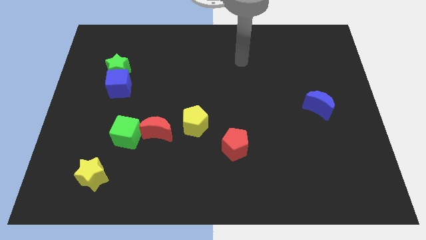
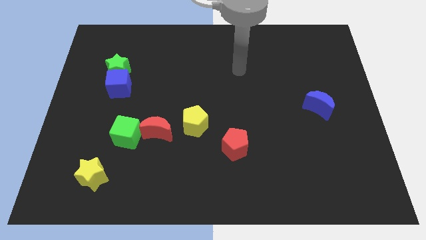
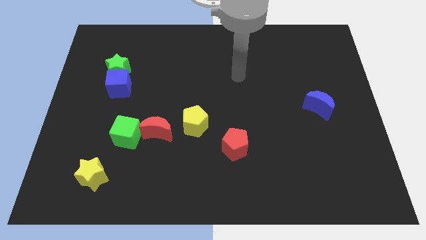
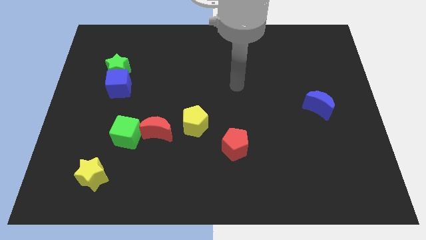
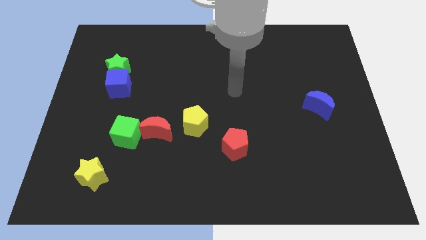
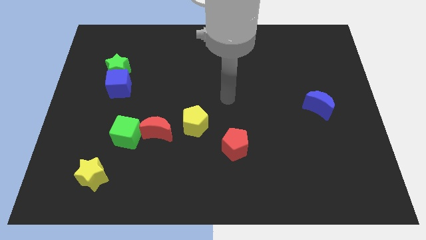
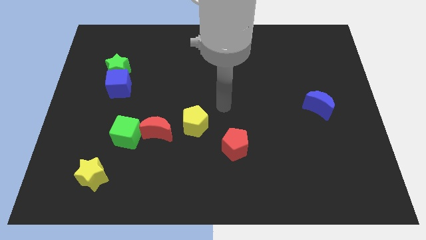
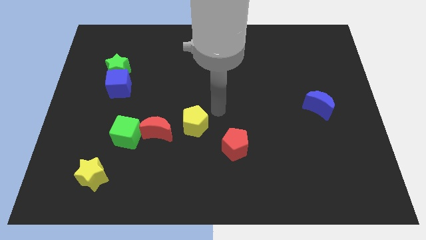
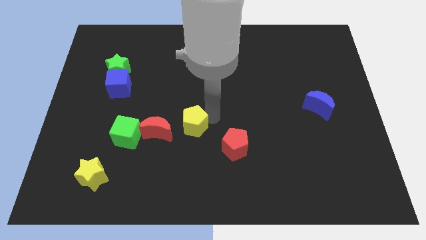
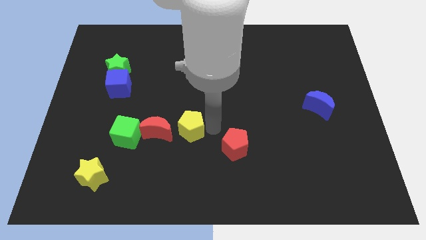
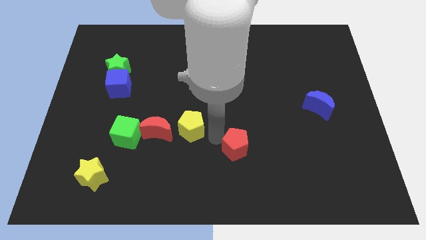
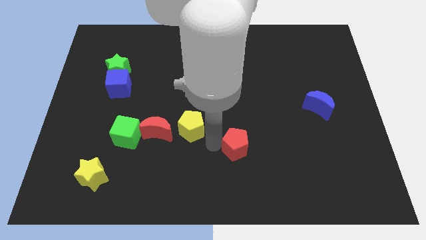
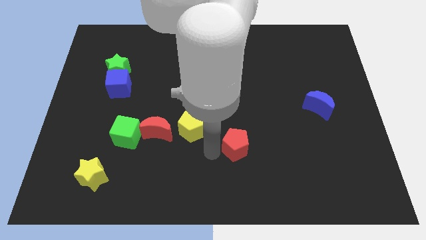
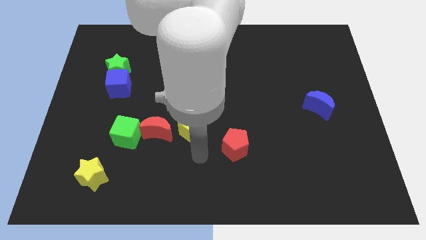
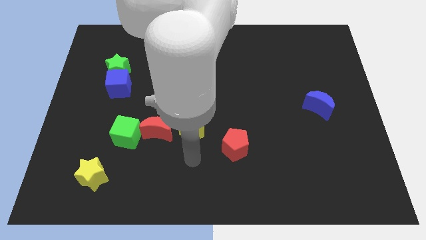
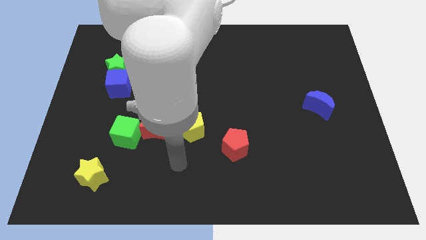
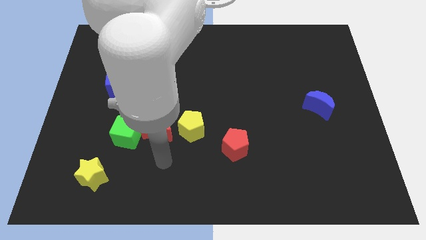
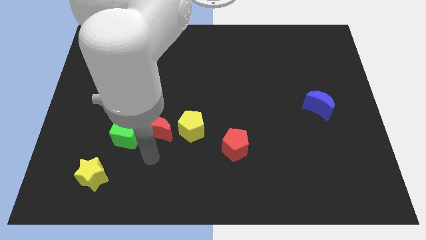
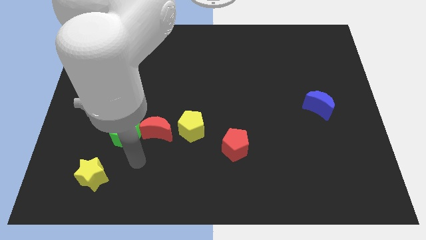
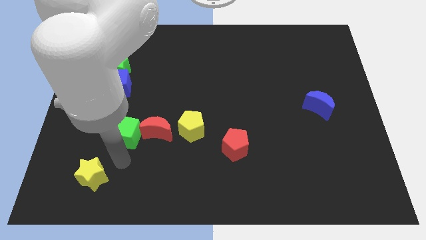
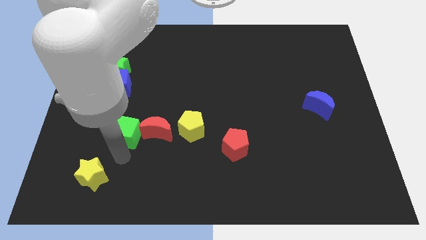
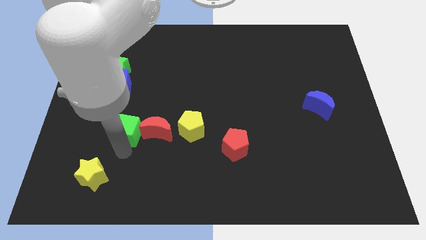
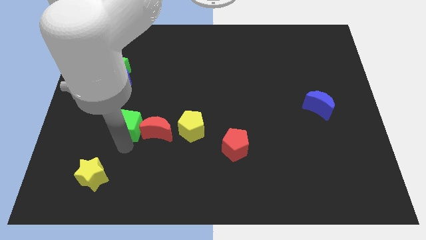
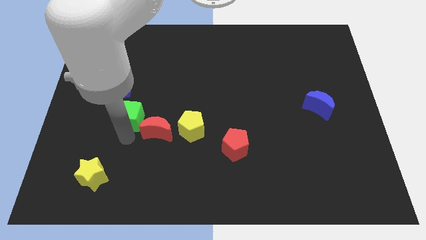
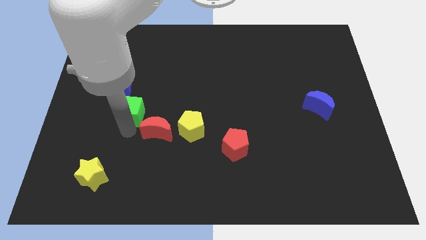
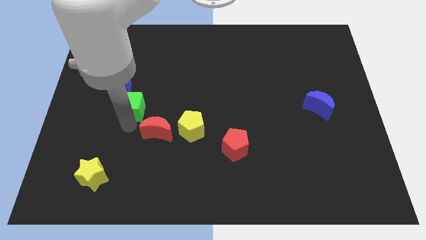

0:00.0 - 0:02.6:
slide the green cube a bit upwards

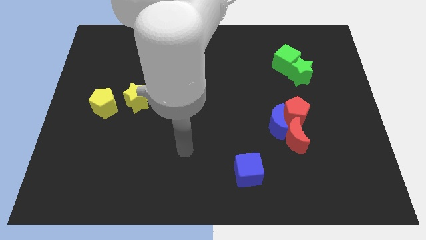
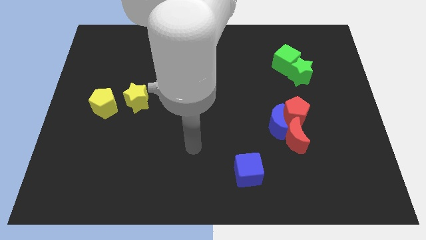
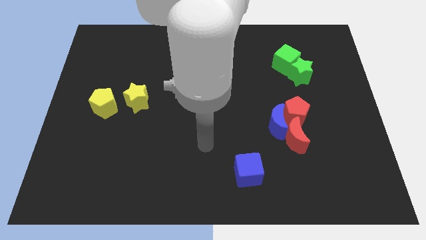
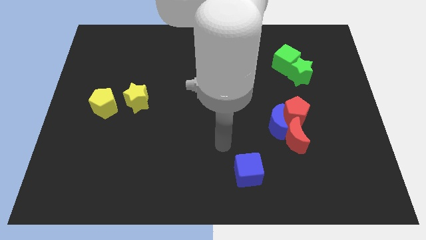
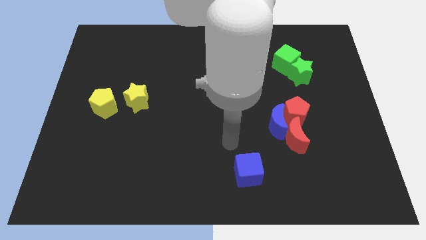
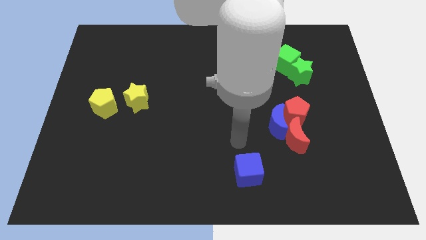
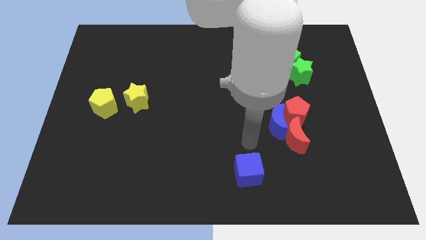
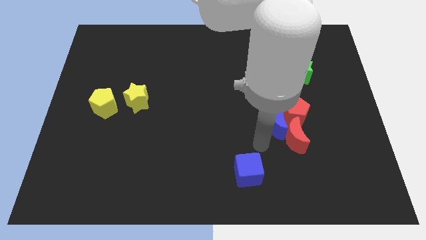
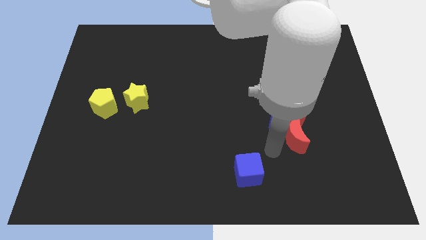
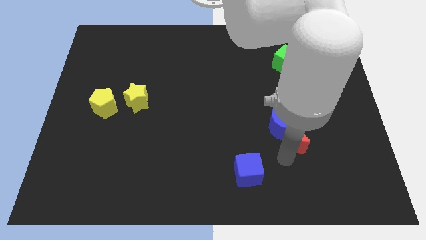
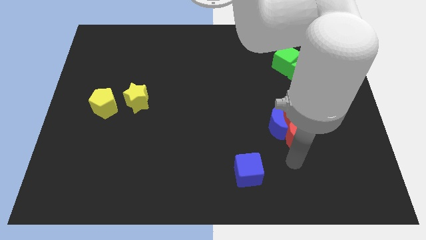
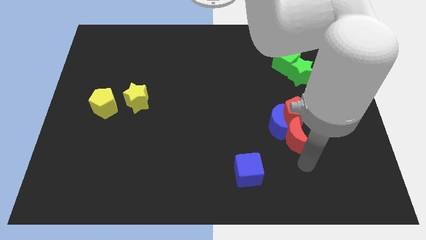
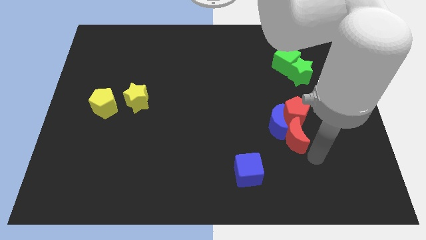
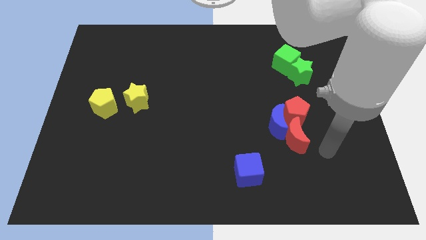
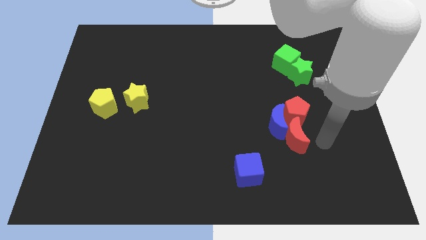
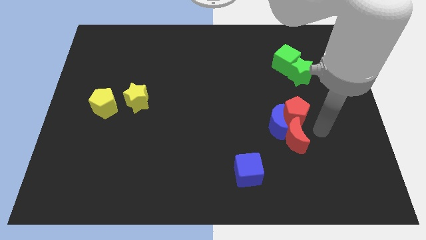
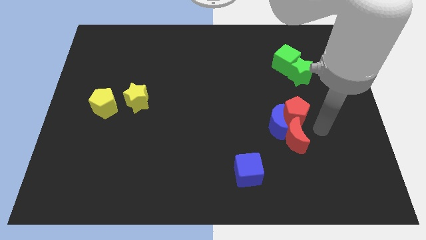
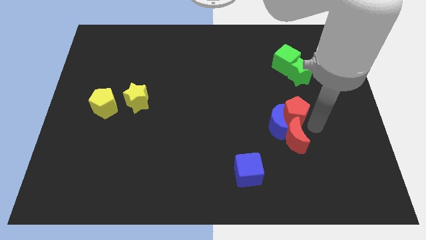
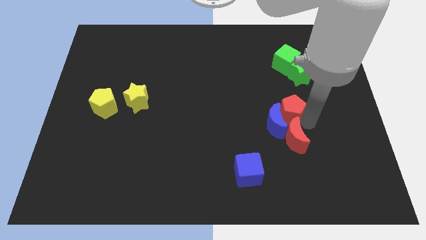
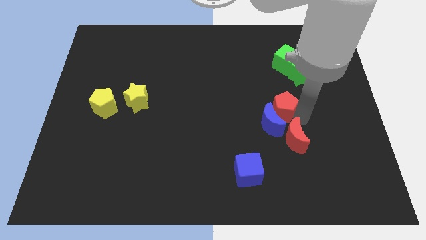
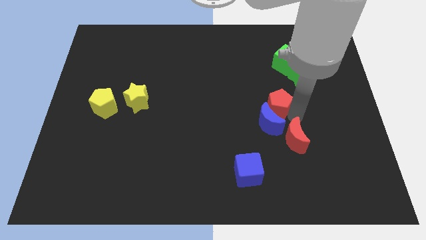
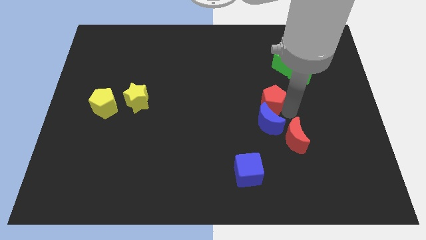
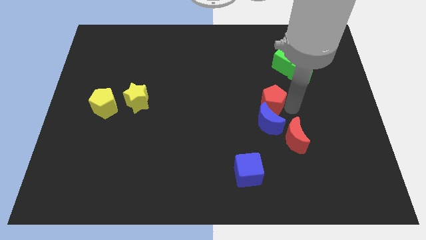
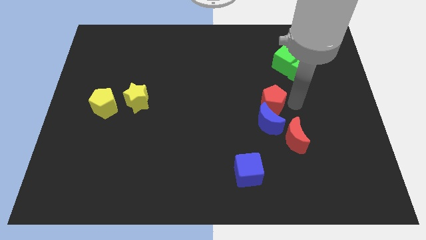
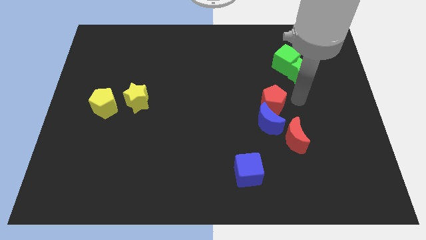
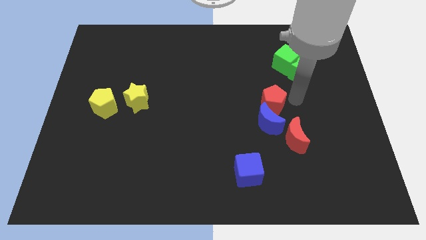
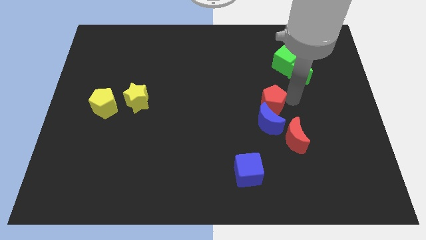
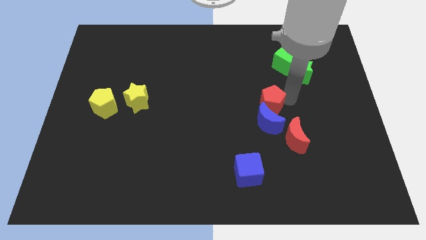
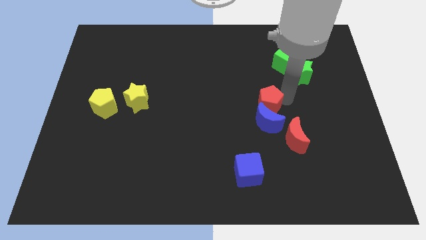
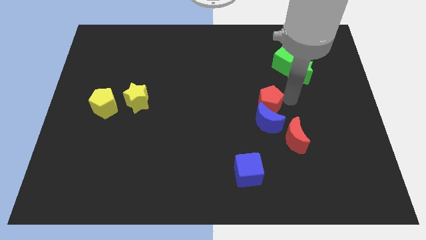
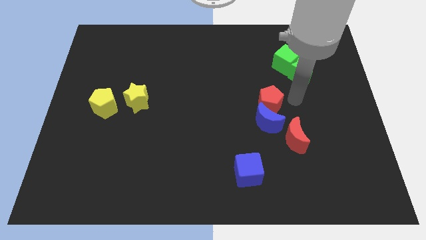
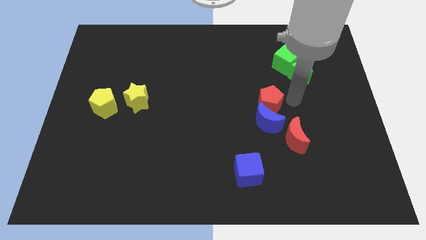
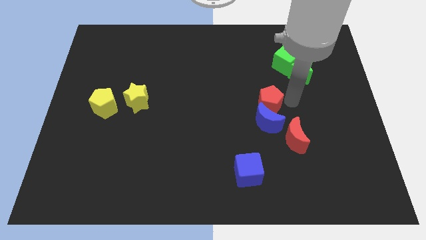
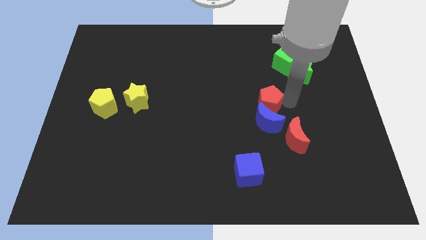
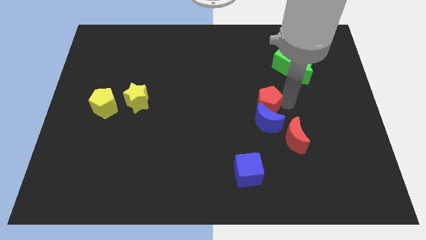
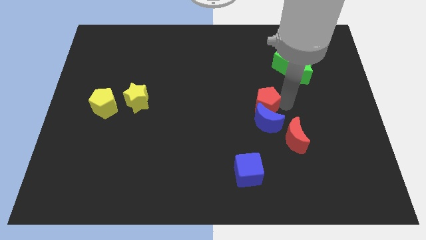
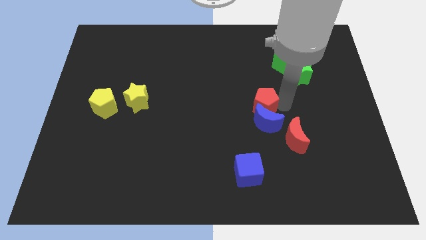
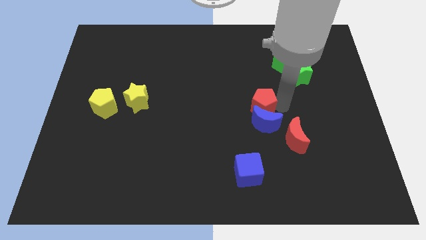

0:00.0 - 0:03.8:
slightly move the red pentagon to the left

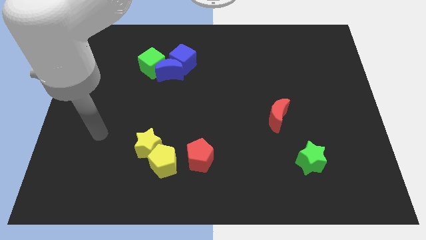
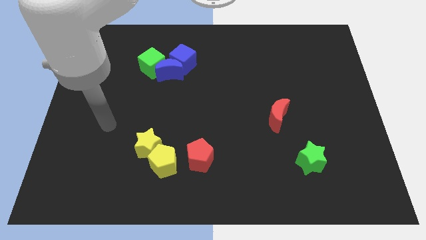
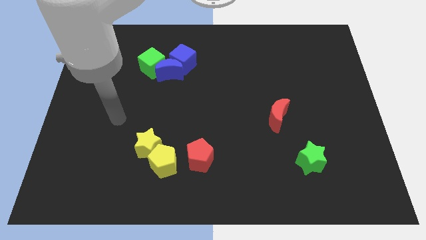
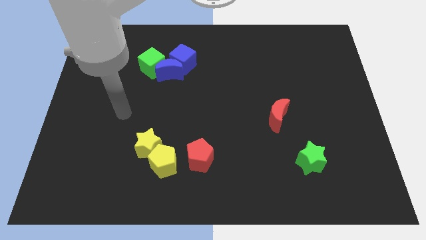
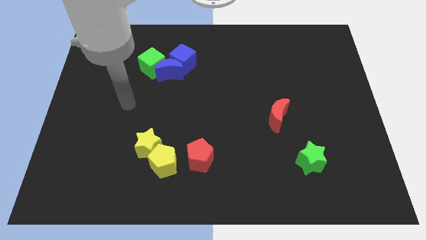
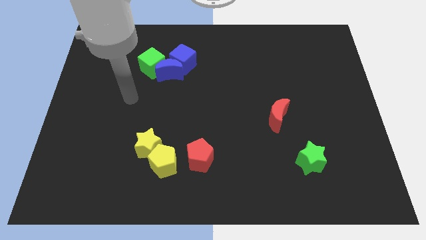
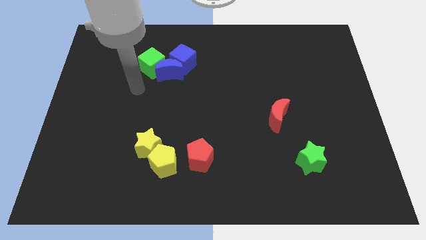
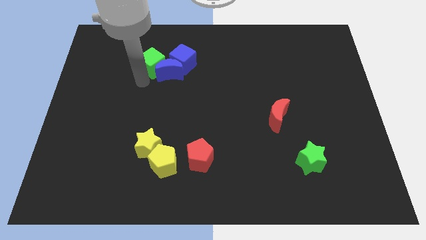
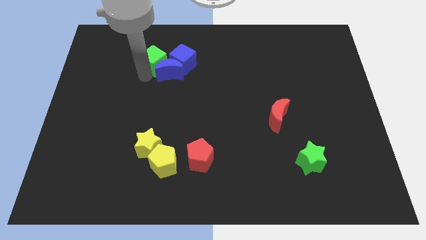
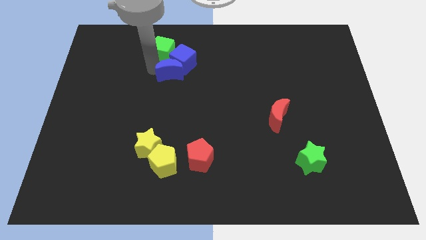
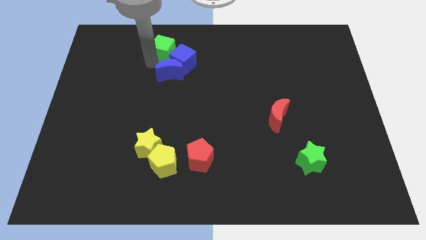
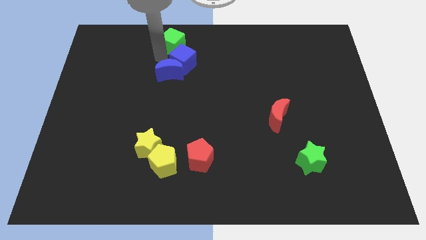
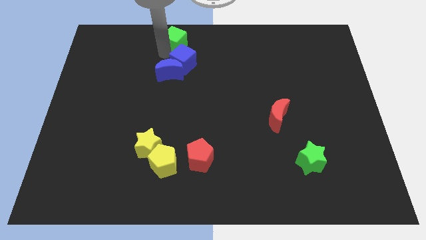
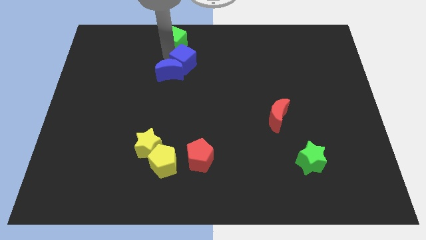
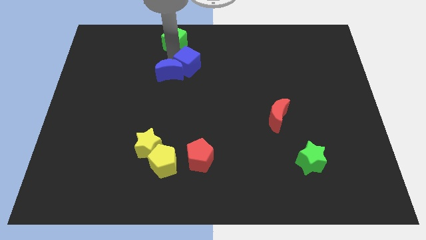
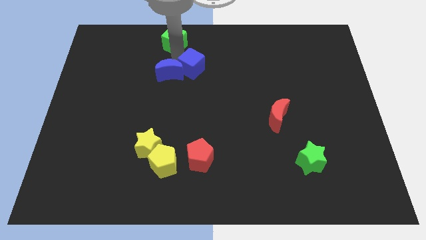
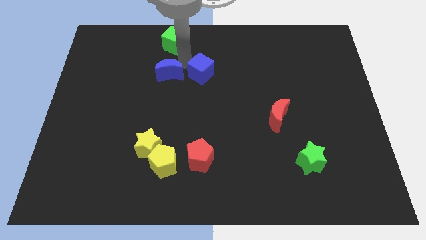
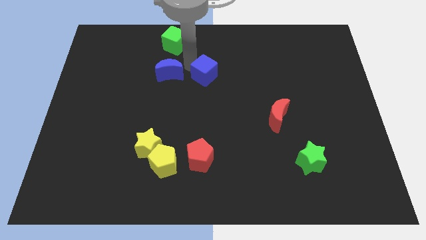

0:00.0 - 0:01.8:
slightly push the blue cube diagonally down and to the right
